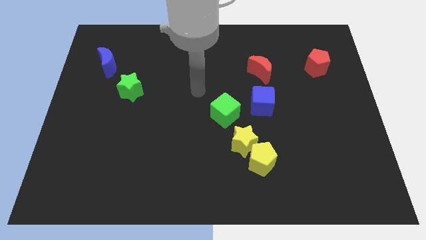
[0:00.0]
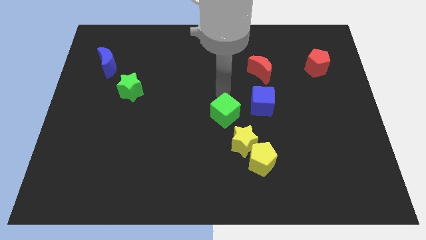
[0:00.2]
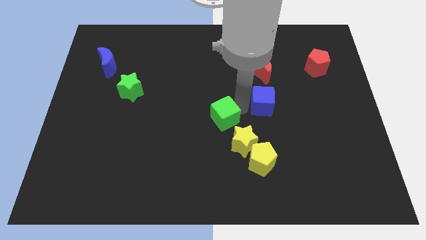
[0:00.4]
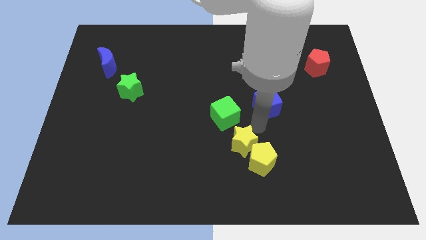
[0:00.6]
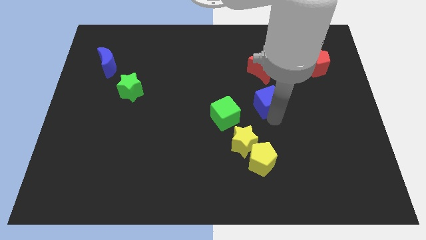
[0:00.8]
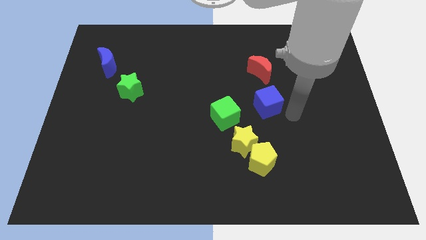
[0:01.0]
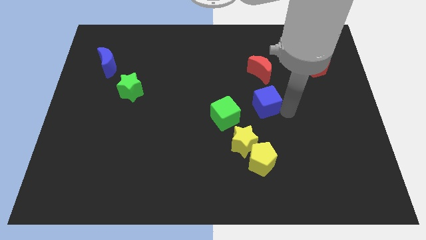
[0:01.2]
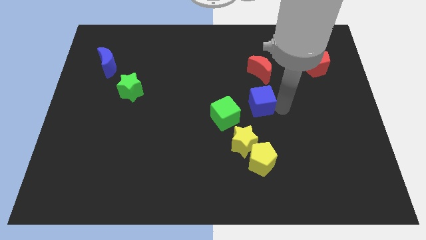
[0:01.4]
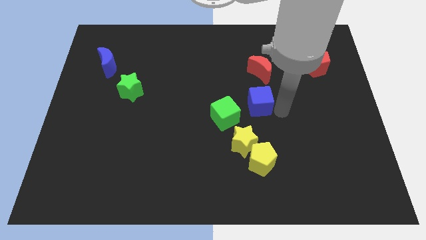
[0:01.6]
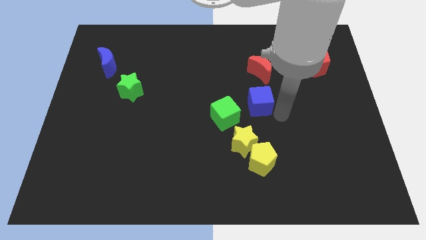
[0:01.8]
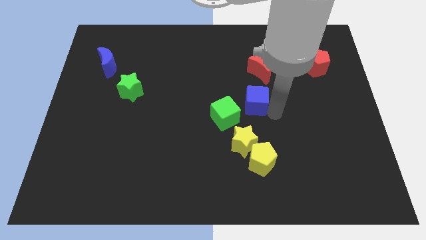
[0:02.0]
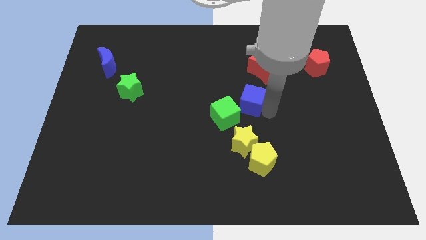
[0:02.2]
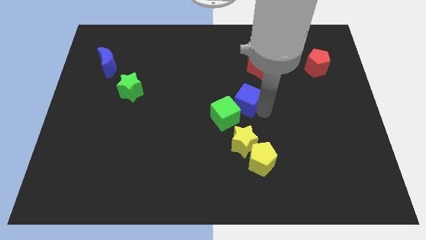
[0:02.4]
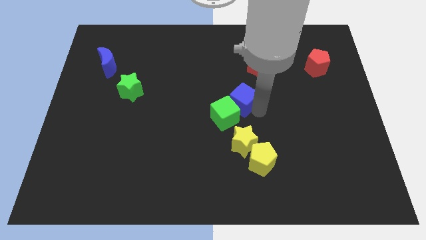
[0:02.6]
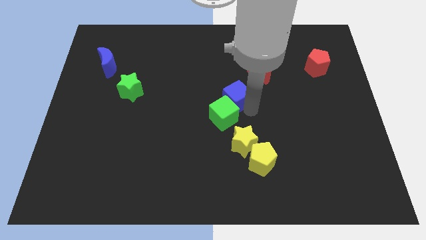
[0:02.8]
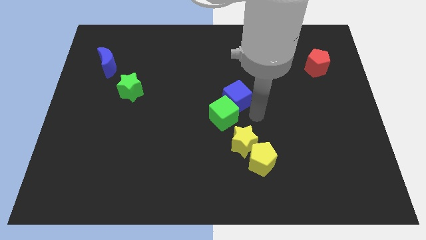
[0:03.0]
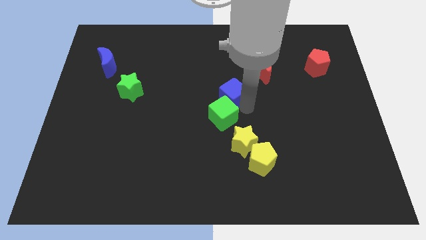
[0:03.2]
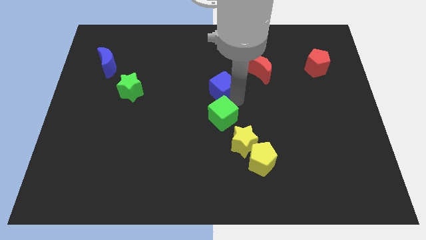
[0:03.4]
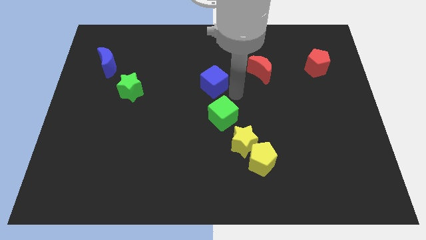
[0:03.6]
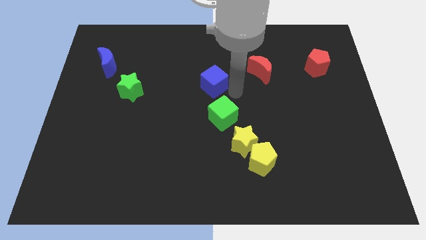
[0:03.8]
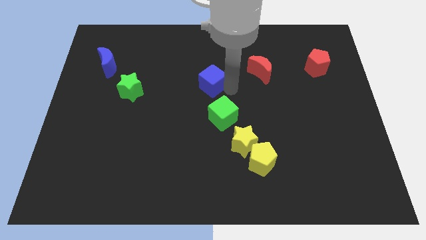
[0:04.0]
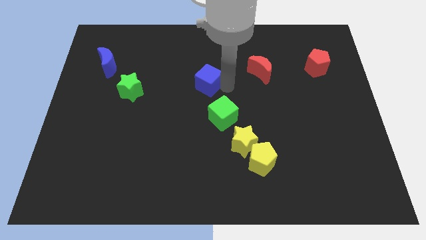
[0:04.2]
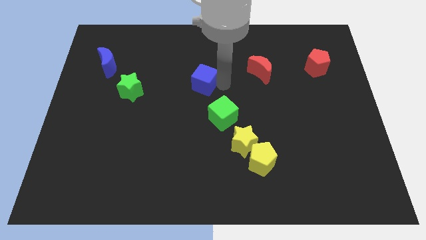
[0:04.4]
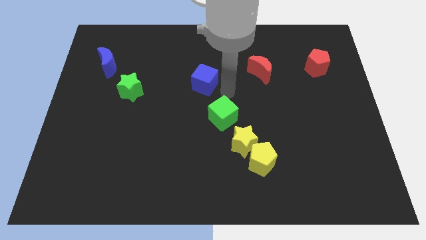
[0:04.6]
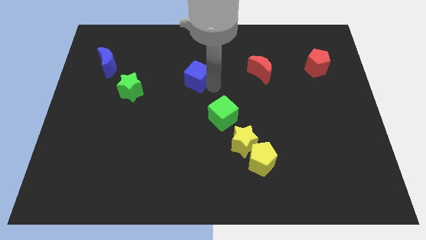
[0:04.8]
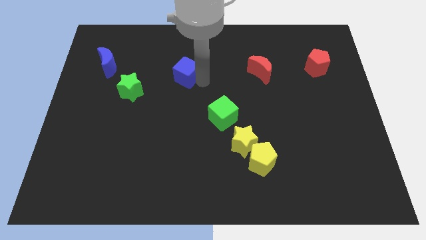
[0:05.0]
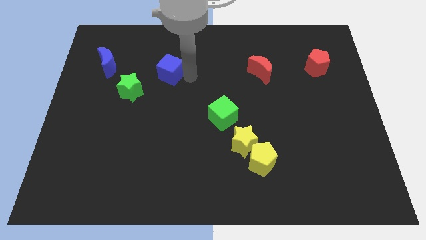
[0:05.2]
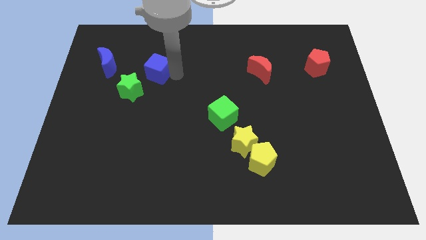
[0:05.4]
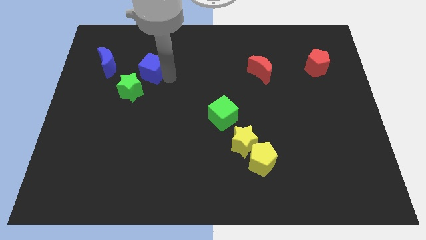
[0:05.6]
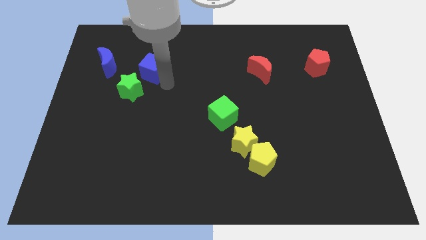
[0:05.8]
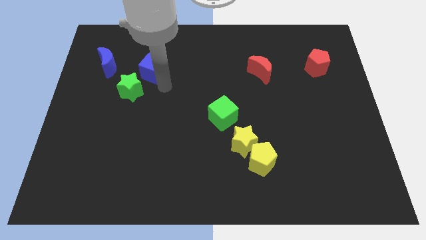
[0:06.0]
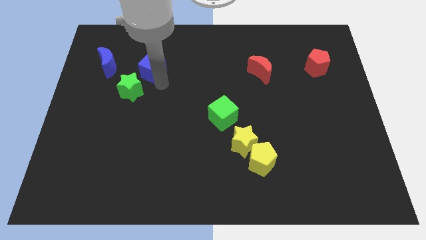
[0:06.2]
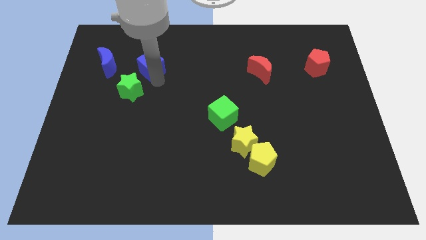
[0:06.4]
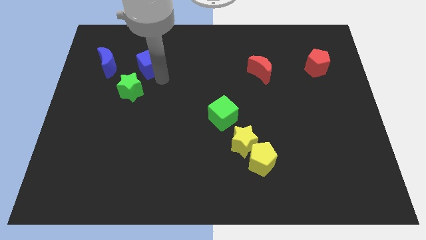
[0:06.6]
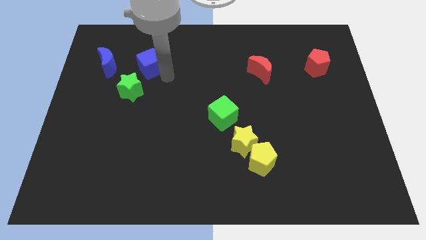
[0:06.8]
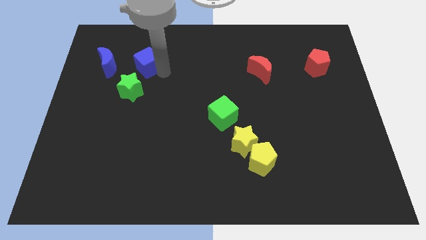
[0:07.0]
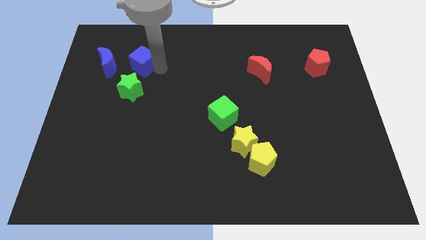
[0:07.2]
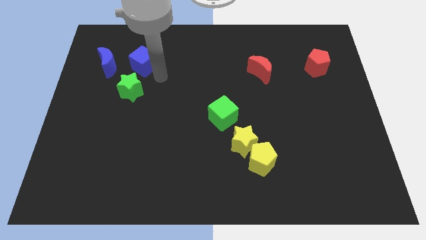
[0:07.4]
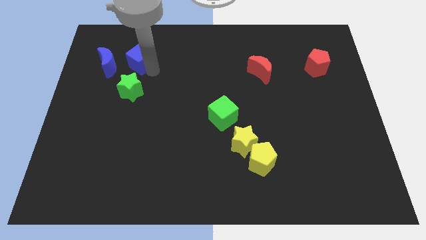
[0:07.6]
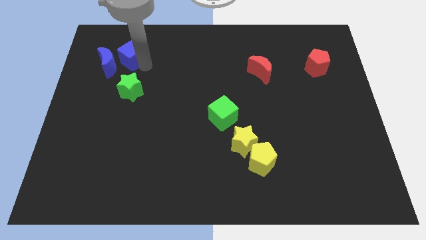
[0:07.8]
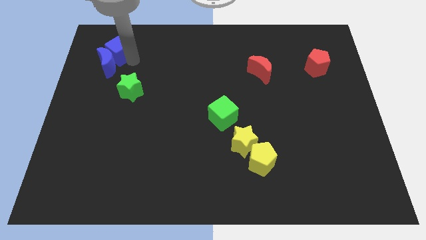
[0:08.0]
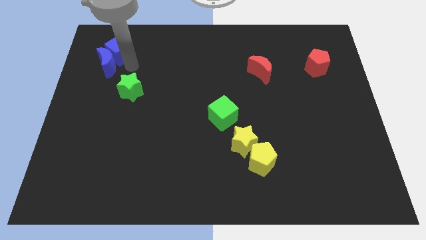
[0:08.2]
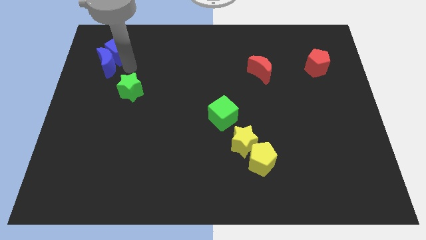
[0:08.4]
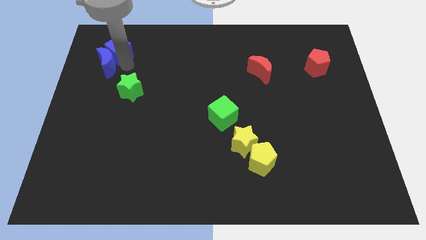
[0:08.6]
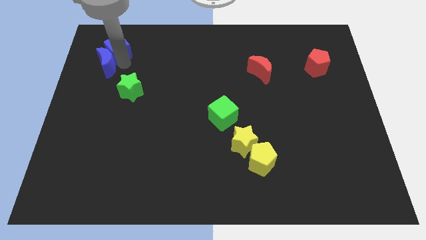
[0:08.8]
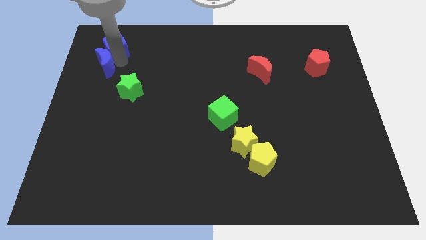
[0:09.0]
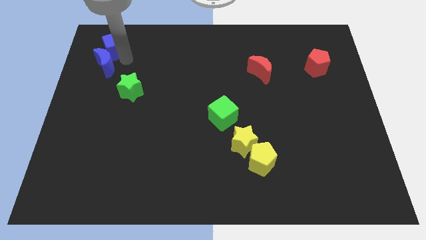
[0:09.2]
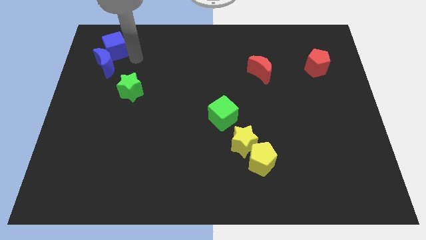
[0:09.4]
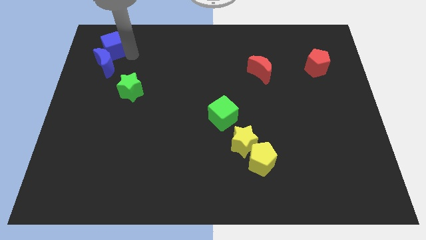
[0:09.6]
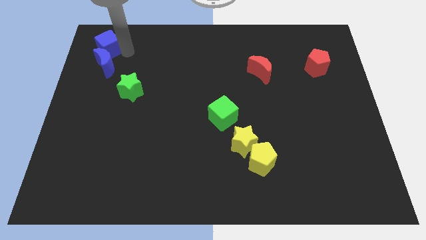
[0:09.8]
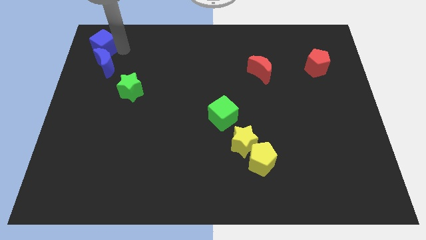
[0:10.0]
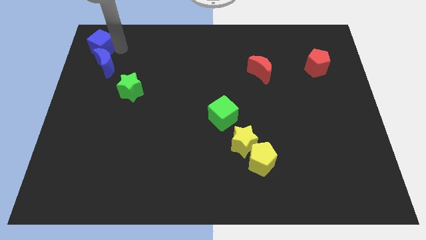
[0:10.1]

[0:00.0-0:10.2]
put the blue cube to the top left of the board
